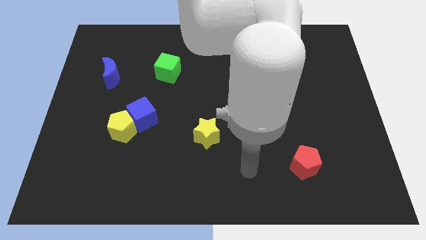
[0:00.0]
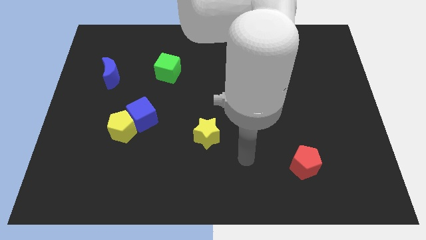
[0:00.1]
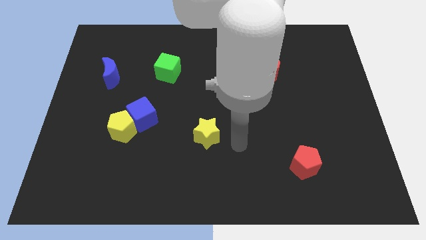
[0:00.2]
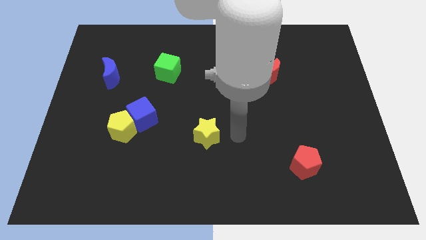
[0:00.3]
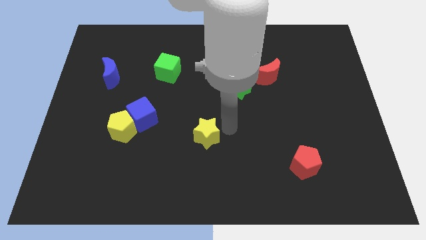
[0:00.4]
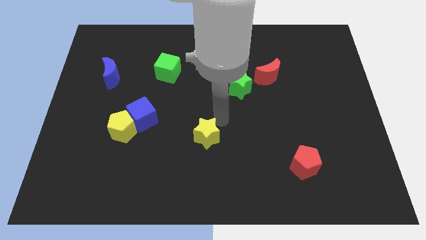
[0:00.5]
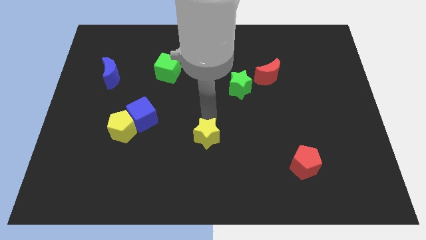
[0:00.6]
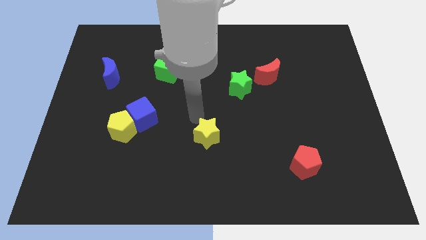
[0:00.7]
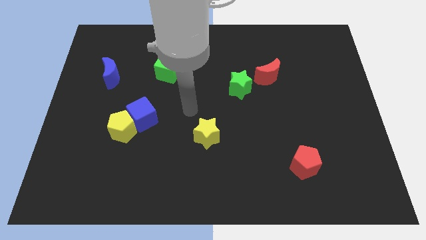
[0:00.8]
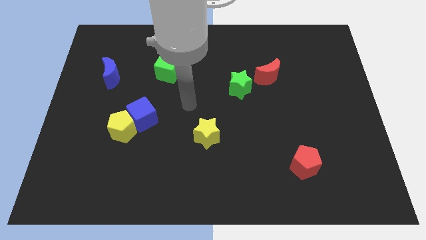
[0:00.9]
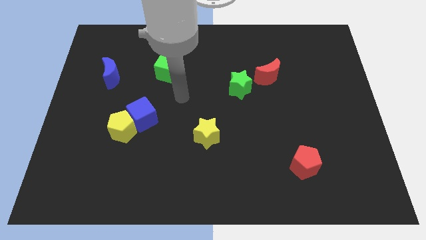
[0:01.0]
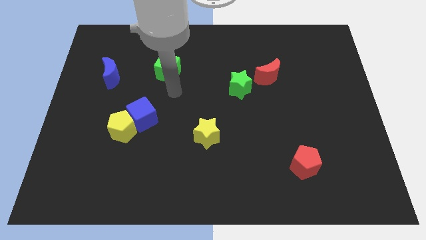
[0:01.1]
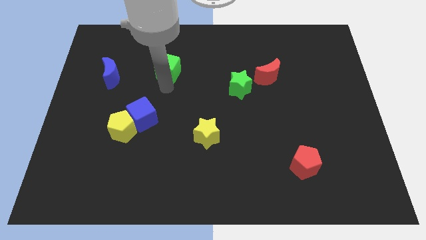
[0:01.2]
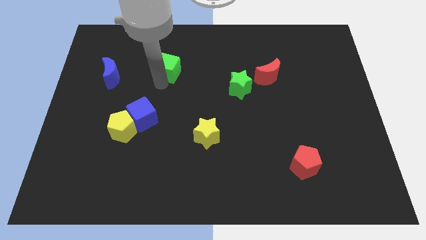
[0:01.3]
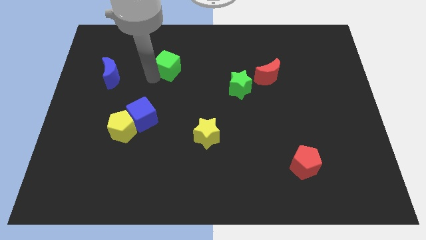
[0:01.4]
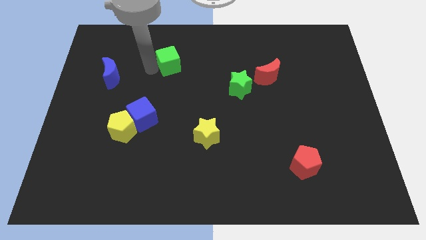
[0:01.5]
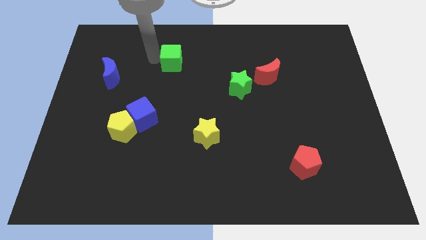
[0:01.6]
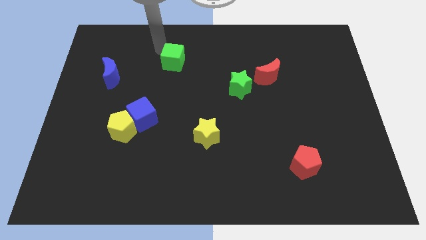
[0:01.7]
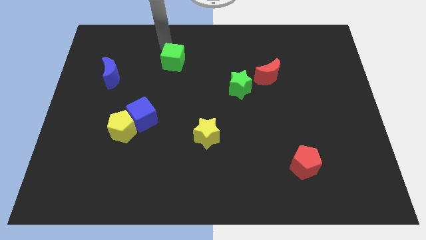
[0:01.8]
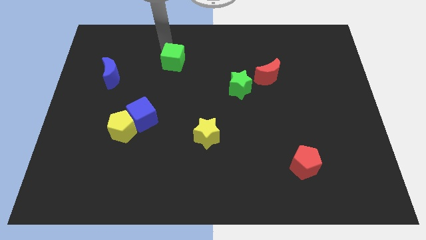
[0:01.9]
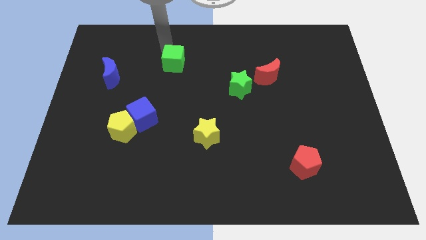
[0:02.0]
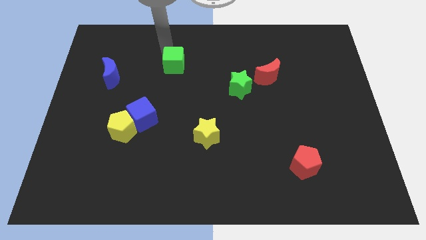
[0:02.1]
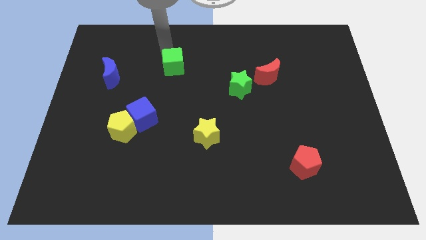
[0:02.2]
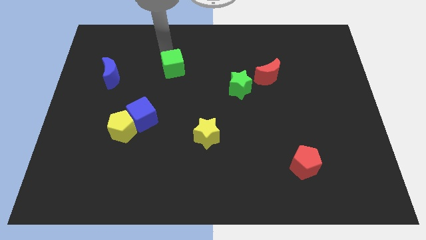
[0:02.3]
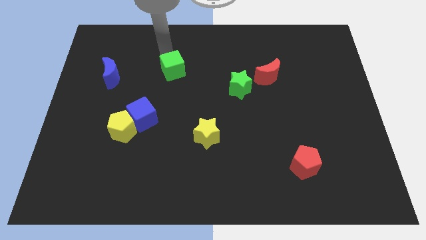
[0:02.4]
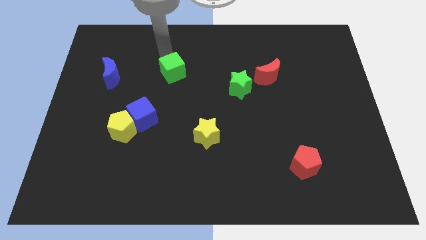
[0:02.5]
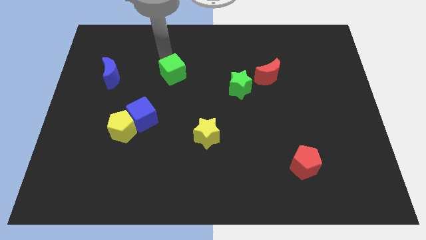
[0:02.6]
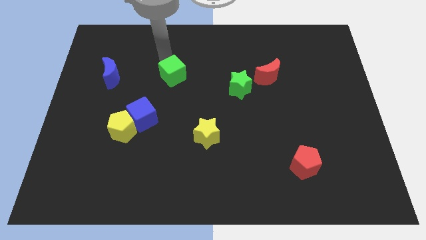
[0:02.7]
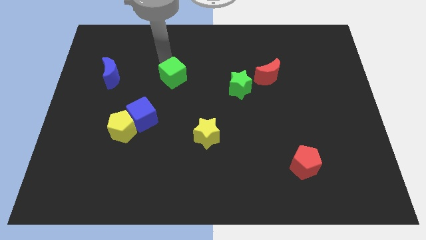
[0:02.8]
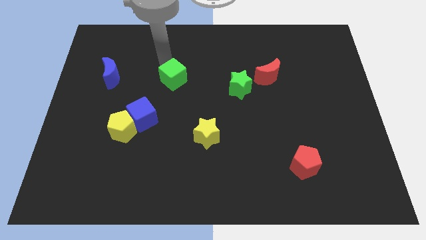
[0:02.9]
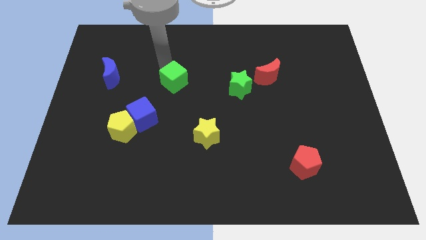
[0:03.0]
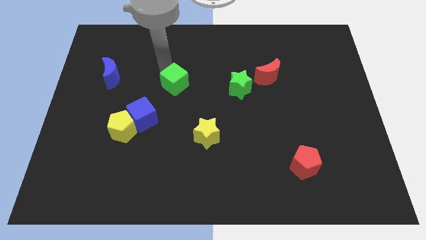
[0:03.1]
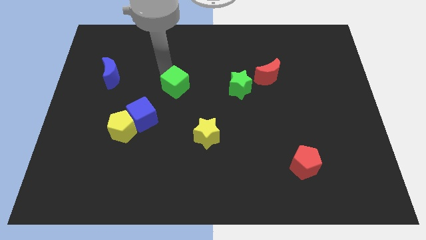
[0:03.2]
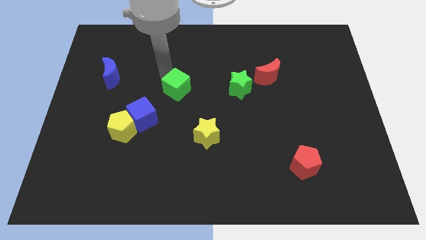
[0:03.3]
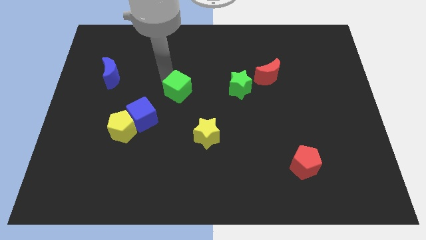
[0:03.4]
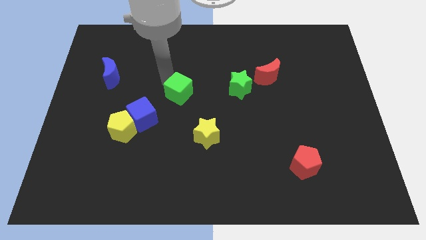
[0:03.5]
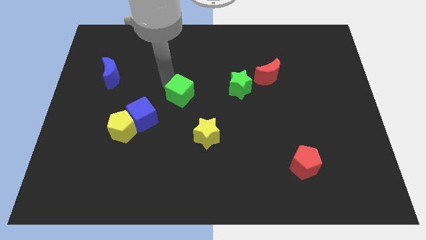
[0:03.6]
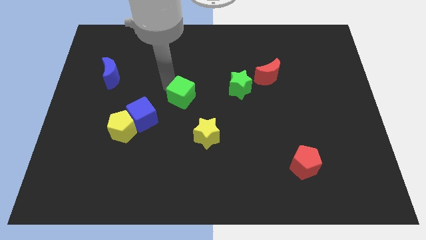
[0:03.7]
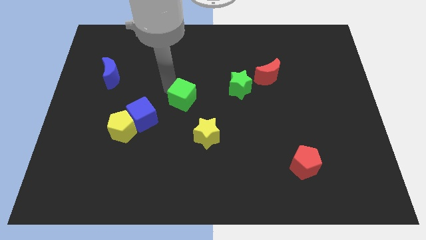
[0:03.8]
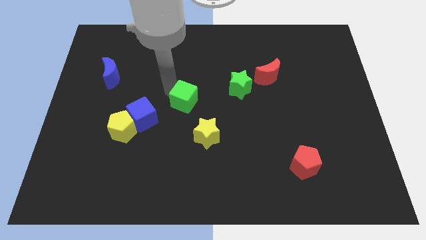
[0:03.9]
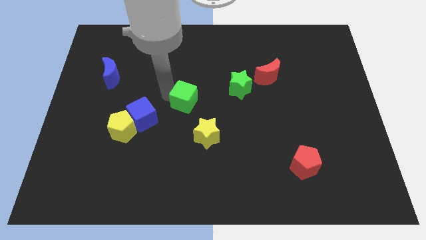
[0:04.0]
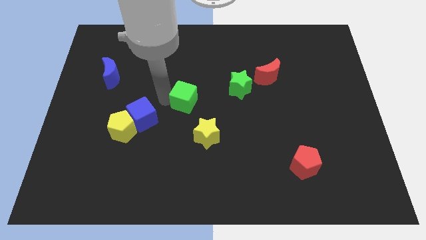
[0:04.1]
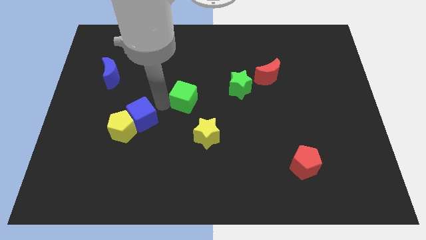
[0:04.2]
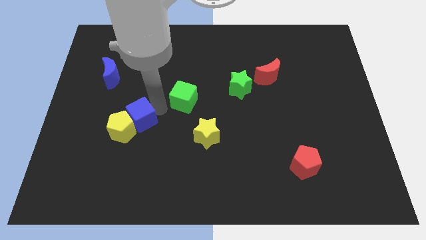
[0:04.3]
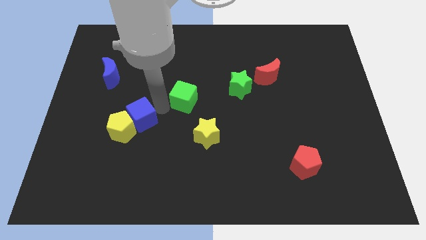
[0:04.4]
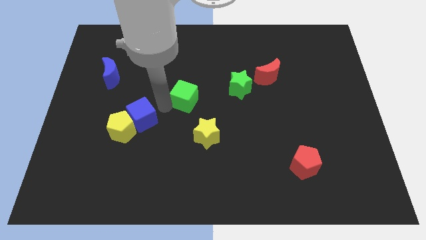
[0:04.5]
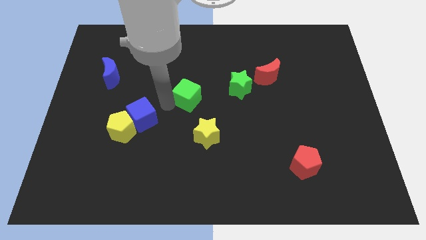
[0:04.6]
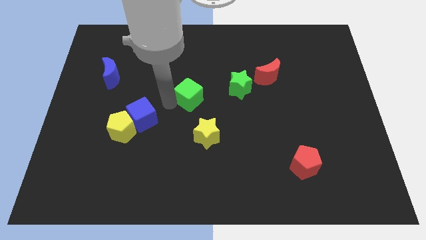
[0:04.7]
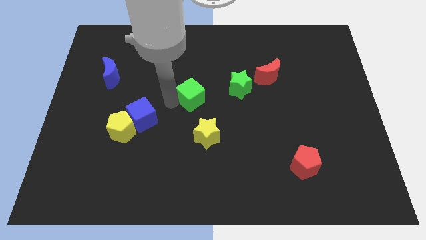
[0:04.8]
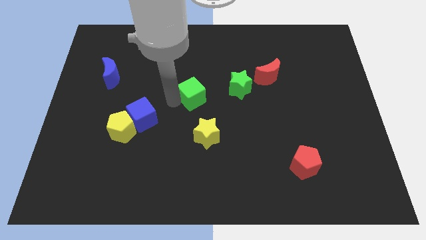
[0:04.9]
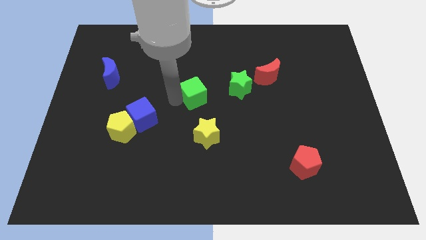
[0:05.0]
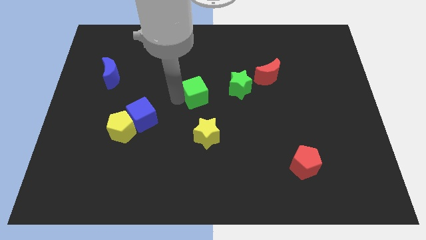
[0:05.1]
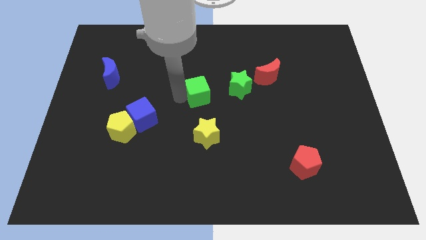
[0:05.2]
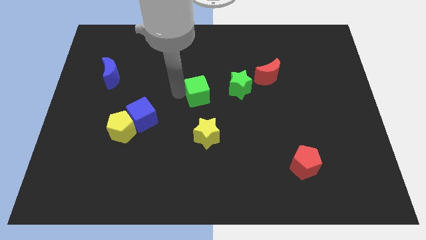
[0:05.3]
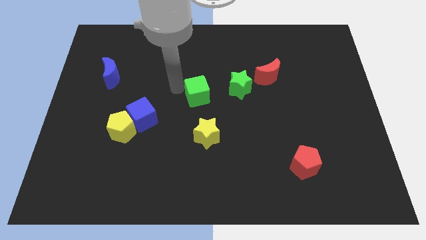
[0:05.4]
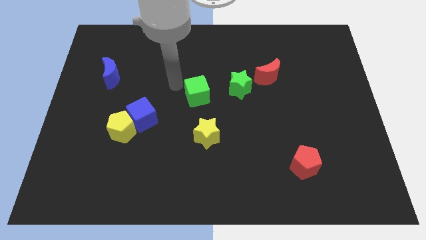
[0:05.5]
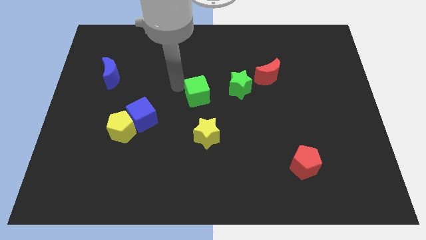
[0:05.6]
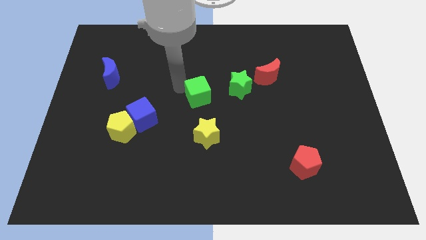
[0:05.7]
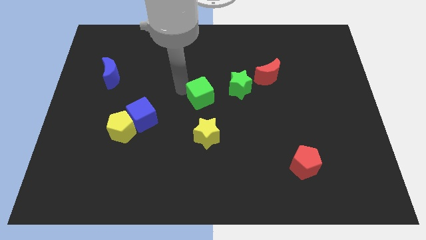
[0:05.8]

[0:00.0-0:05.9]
slide the green cube diagonally down and to the left of the green star

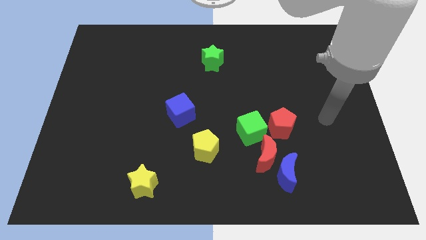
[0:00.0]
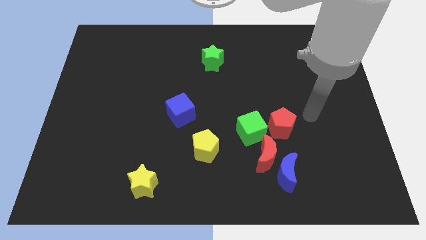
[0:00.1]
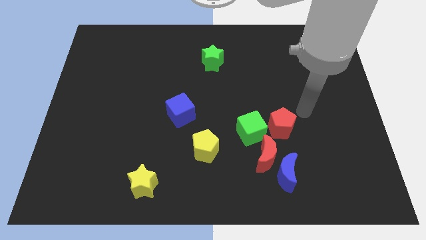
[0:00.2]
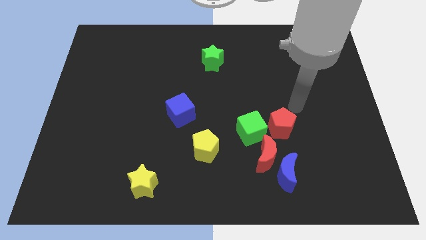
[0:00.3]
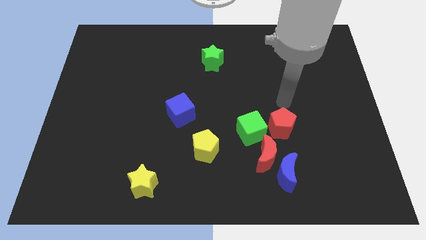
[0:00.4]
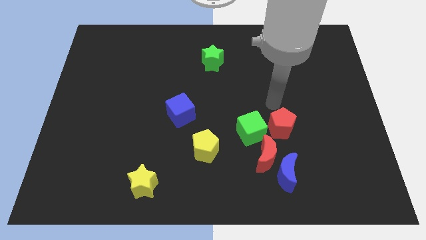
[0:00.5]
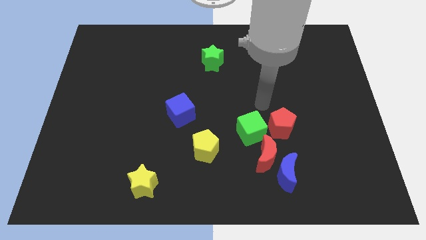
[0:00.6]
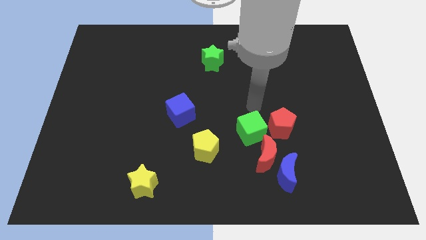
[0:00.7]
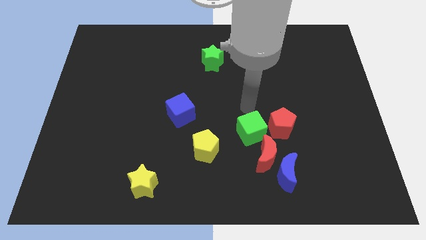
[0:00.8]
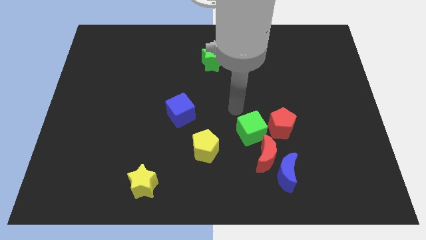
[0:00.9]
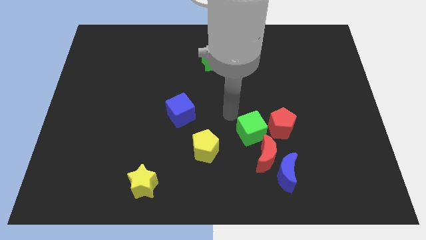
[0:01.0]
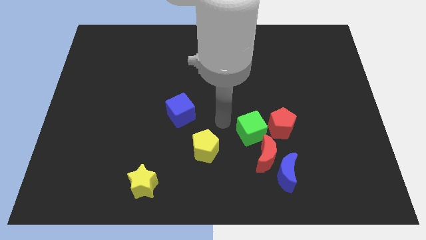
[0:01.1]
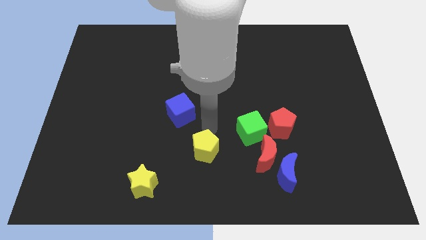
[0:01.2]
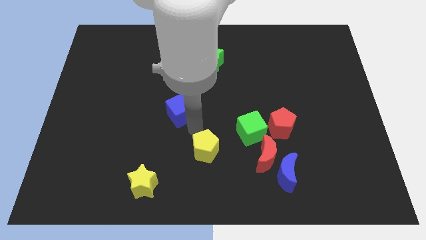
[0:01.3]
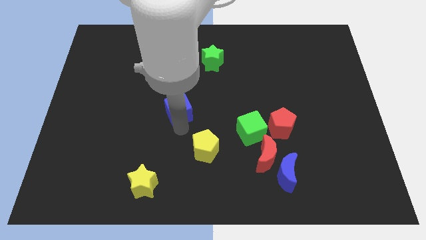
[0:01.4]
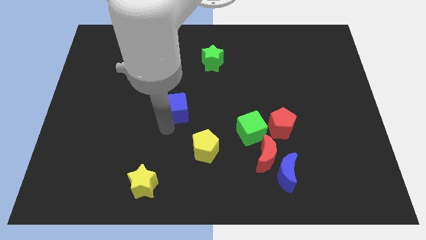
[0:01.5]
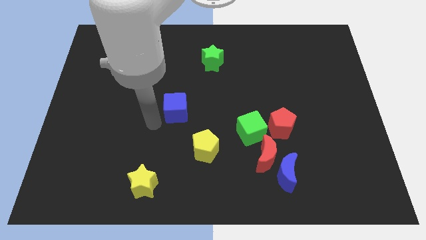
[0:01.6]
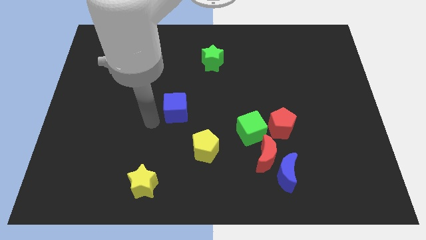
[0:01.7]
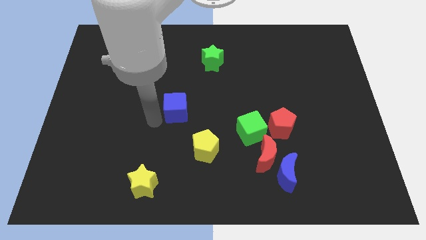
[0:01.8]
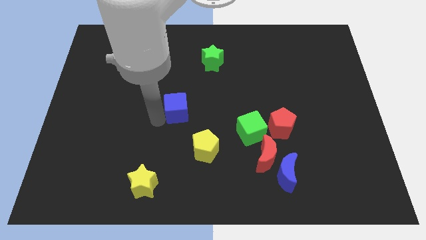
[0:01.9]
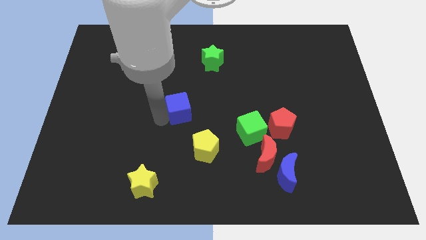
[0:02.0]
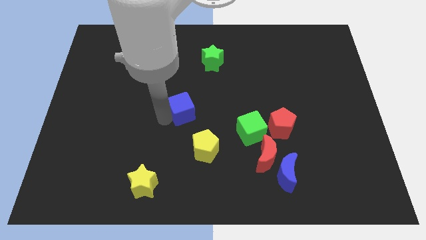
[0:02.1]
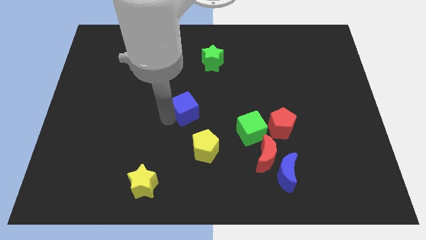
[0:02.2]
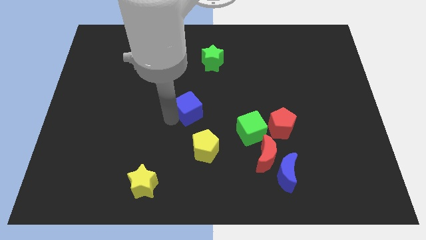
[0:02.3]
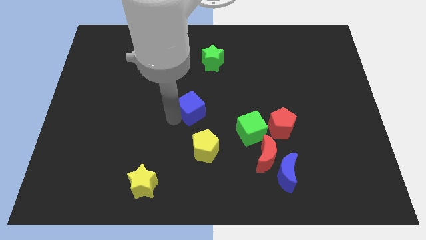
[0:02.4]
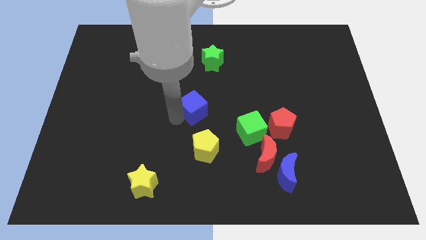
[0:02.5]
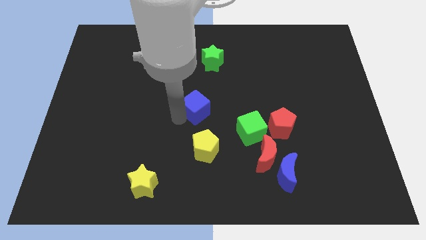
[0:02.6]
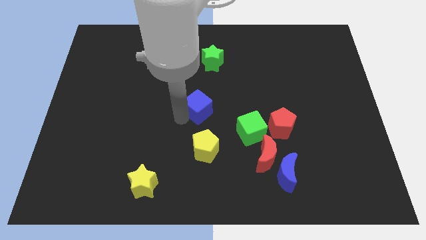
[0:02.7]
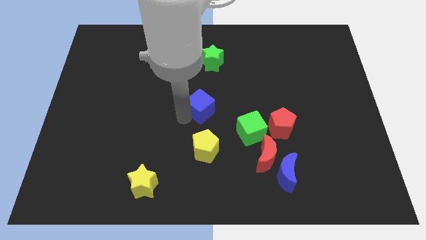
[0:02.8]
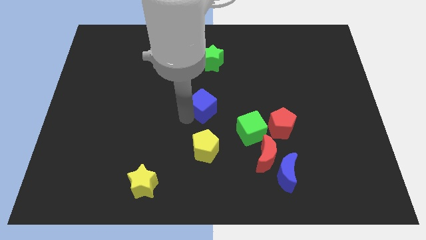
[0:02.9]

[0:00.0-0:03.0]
put the blue cube below the green star
